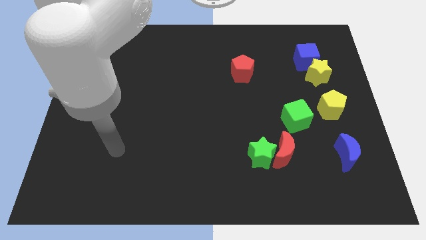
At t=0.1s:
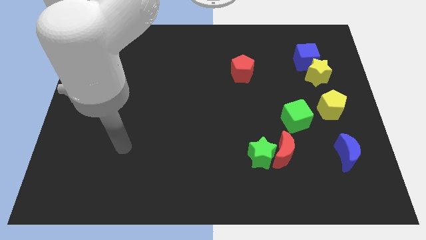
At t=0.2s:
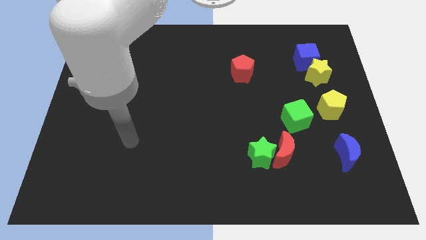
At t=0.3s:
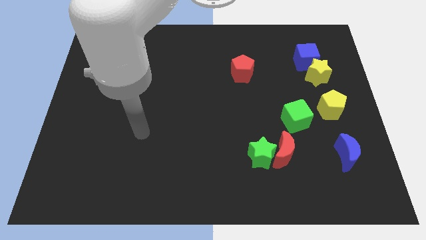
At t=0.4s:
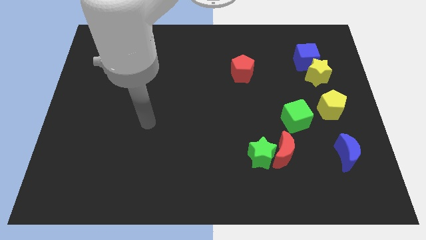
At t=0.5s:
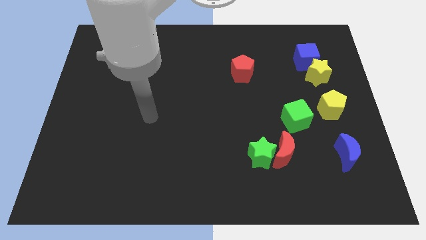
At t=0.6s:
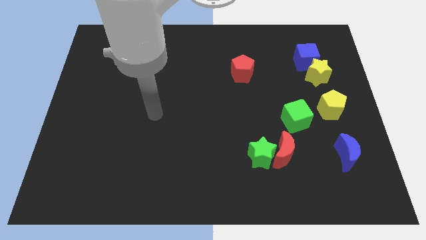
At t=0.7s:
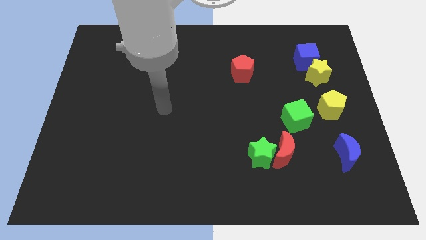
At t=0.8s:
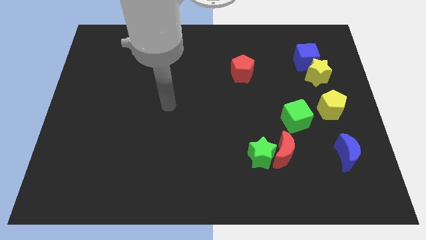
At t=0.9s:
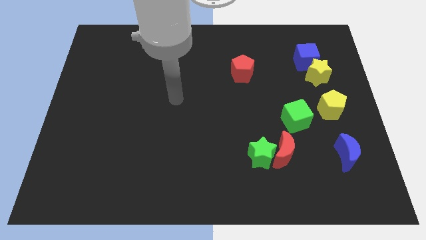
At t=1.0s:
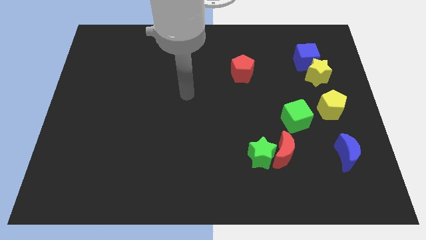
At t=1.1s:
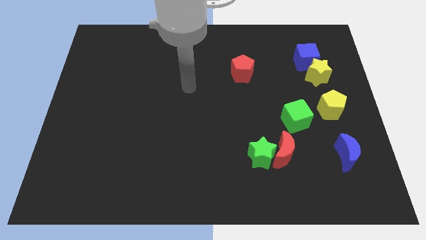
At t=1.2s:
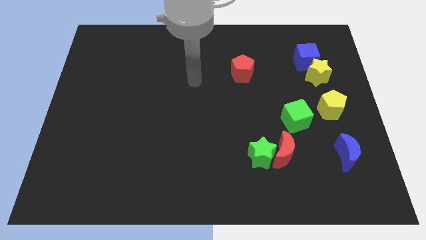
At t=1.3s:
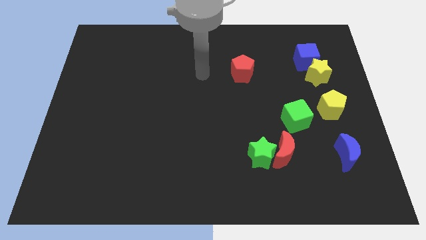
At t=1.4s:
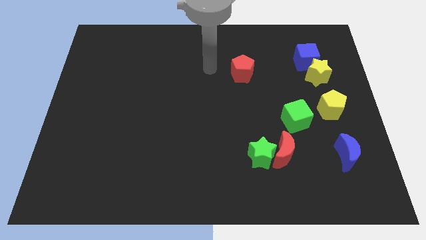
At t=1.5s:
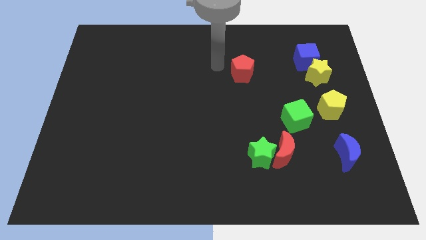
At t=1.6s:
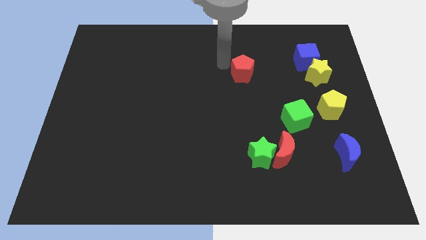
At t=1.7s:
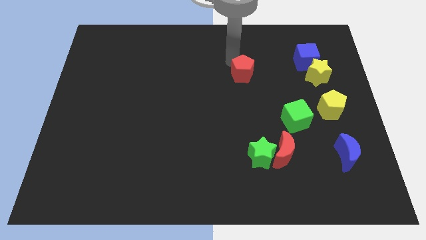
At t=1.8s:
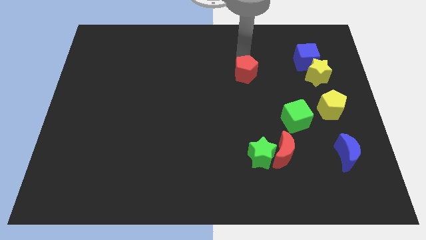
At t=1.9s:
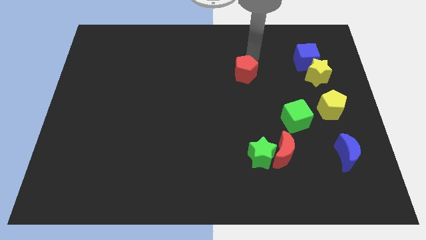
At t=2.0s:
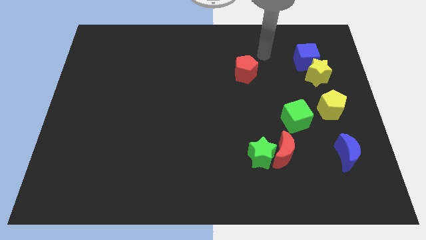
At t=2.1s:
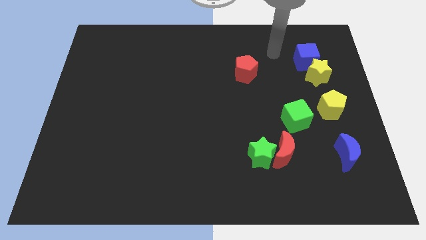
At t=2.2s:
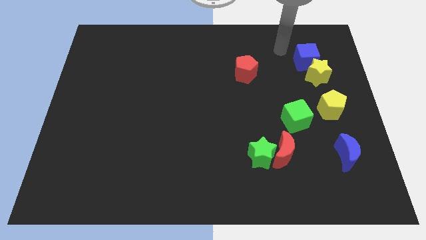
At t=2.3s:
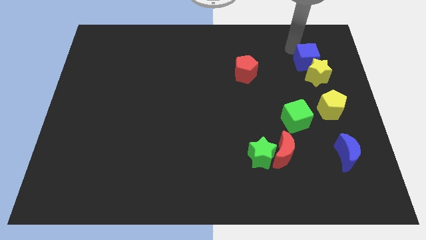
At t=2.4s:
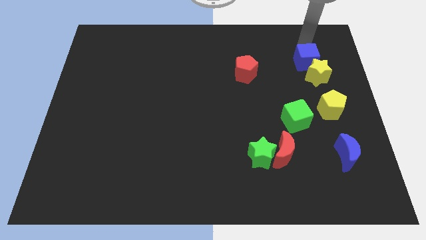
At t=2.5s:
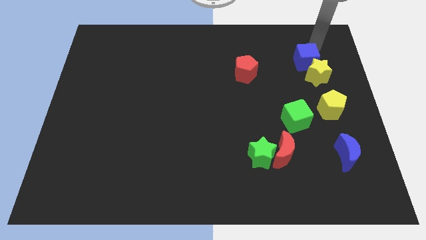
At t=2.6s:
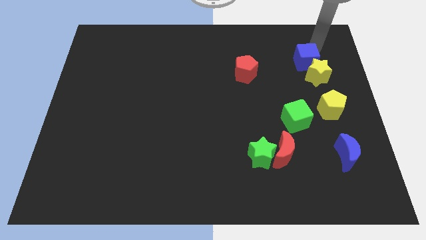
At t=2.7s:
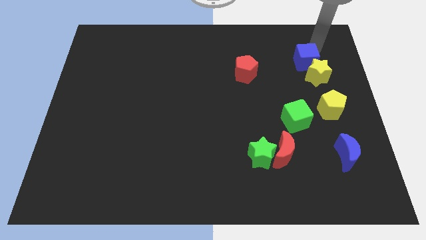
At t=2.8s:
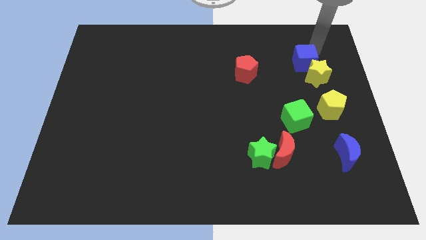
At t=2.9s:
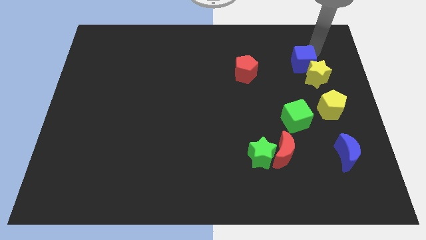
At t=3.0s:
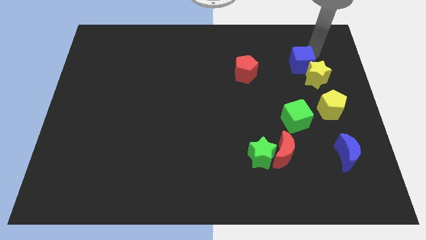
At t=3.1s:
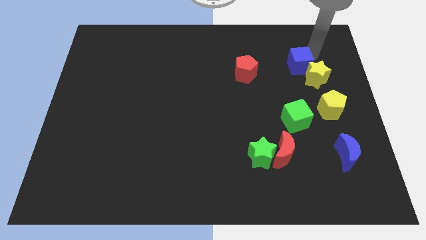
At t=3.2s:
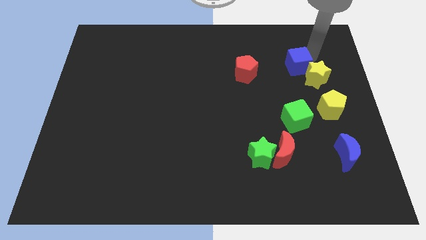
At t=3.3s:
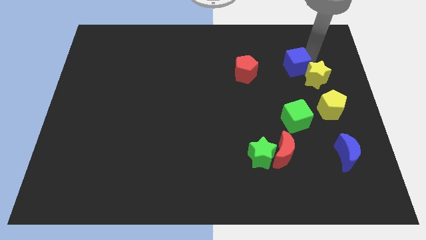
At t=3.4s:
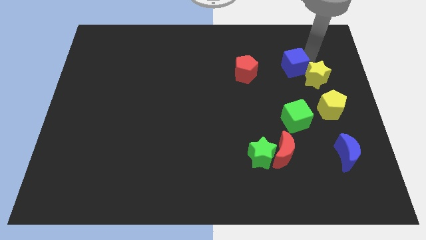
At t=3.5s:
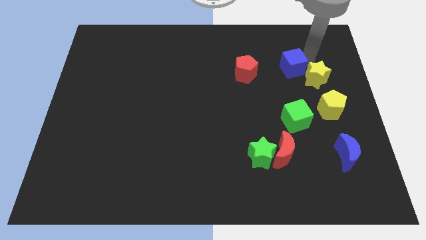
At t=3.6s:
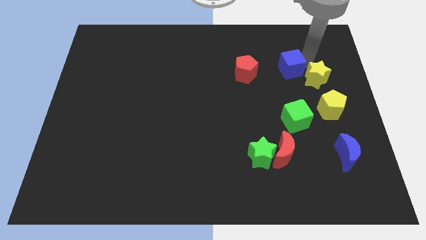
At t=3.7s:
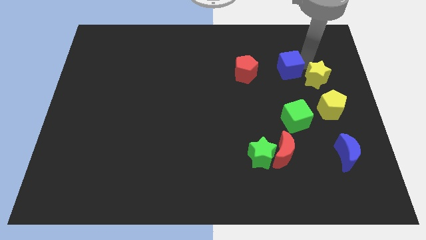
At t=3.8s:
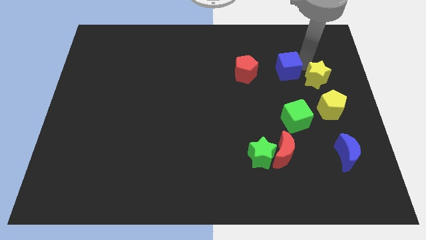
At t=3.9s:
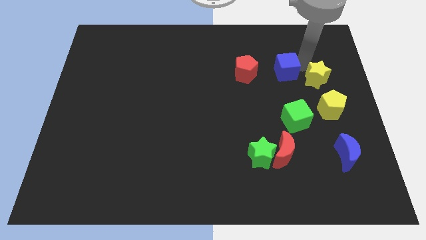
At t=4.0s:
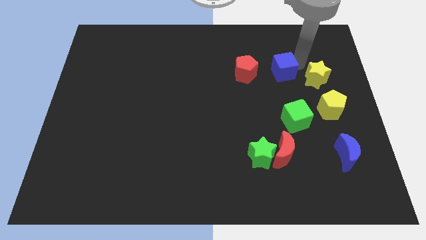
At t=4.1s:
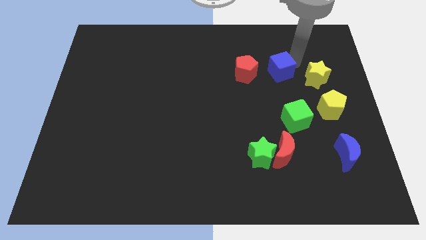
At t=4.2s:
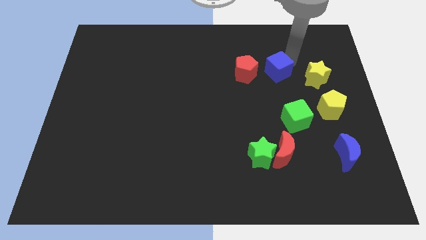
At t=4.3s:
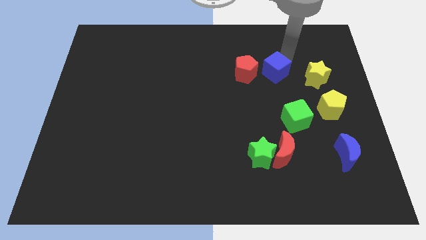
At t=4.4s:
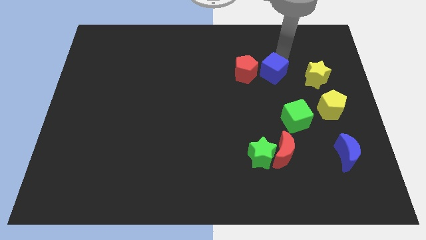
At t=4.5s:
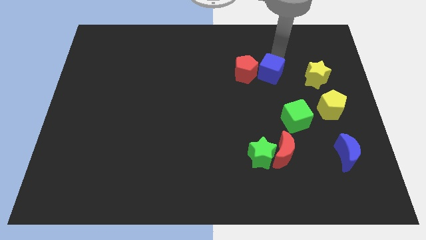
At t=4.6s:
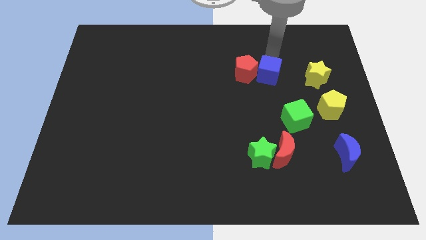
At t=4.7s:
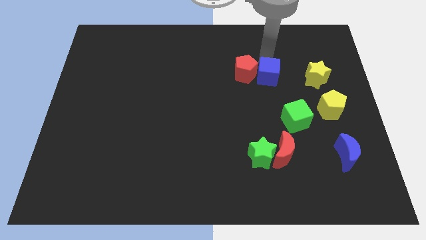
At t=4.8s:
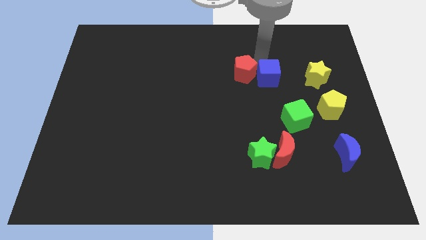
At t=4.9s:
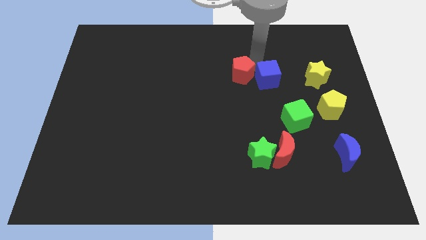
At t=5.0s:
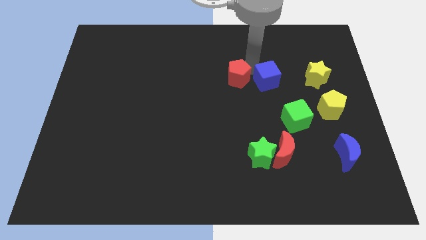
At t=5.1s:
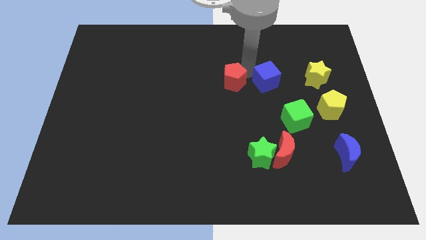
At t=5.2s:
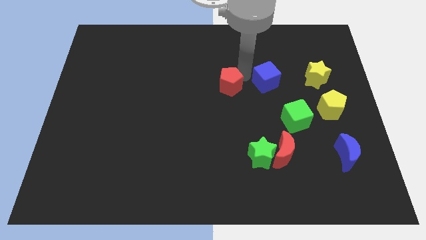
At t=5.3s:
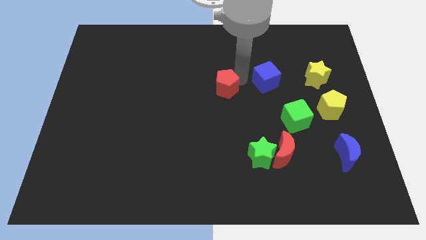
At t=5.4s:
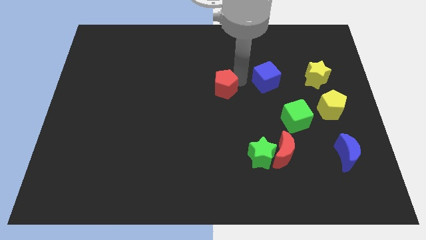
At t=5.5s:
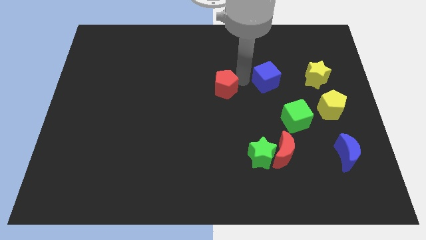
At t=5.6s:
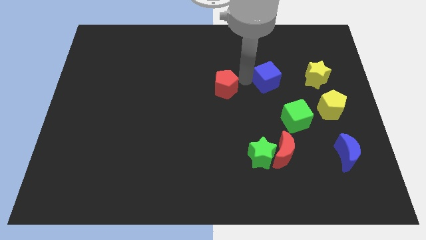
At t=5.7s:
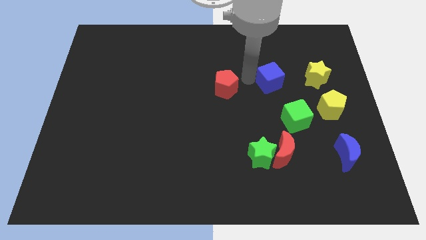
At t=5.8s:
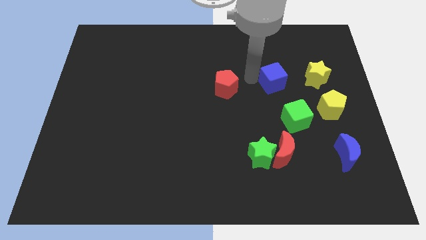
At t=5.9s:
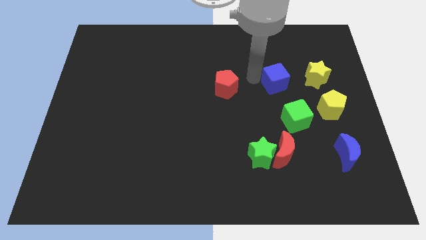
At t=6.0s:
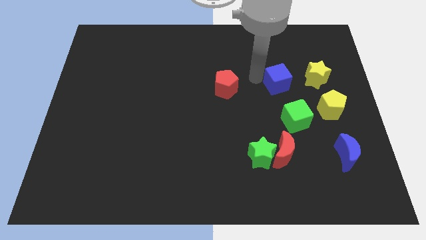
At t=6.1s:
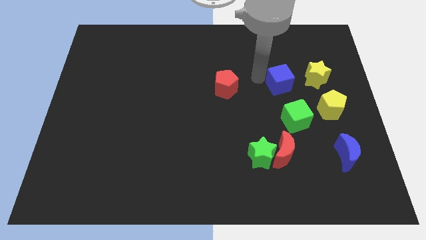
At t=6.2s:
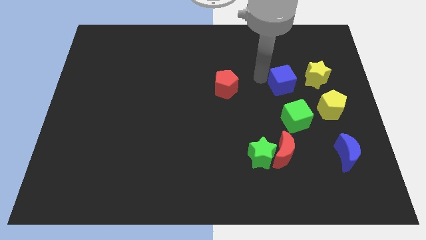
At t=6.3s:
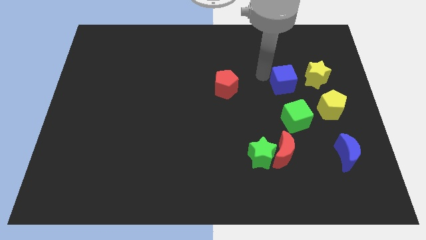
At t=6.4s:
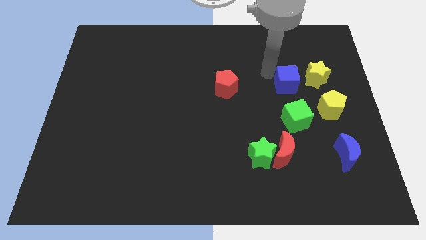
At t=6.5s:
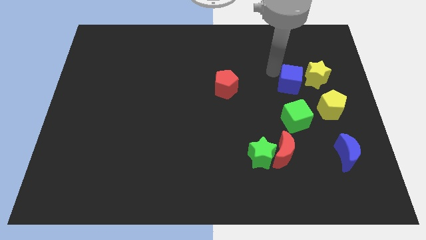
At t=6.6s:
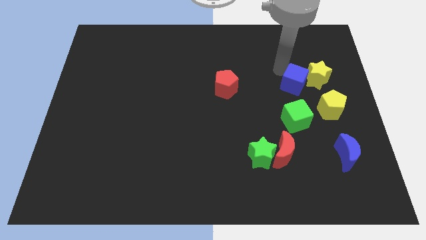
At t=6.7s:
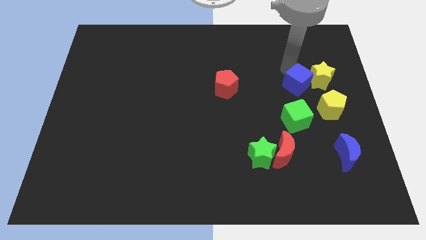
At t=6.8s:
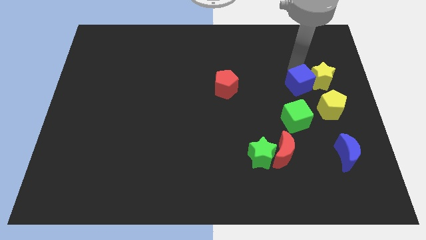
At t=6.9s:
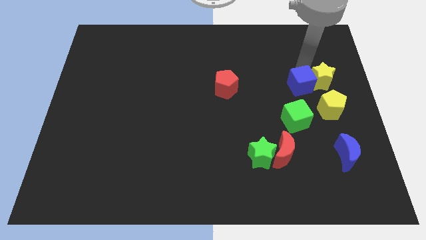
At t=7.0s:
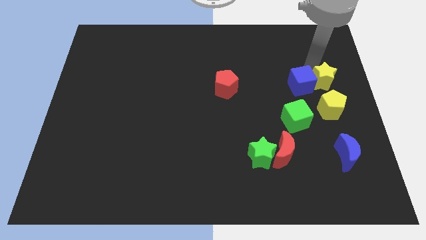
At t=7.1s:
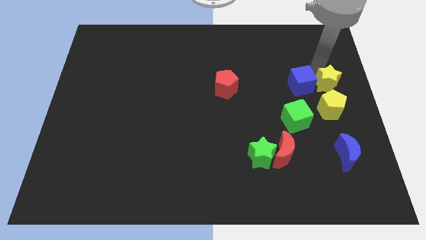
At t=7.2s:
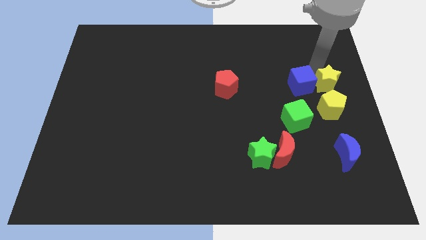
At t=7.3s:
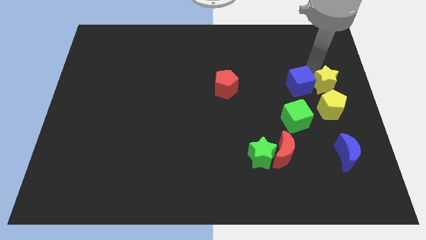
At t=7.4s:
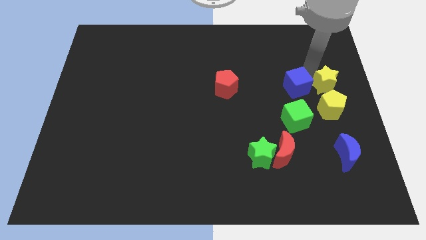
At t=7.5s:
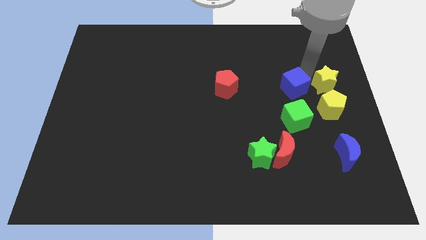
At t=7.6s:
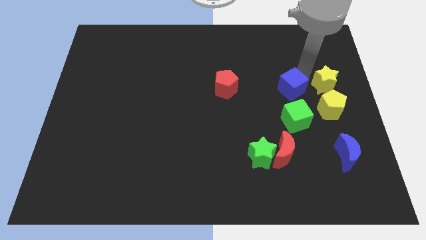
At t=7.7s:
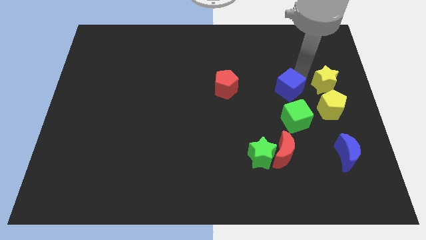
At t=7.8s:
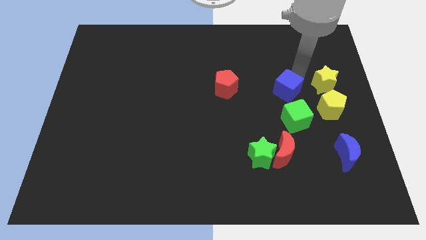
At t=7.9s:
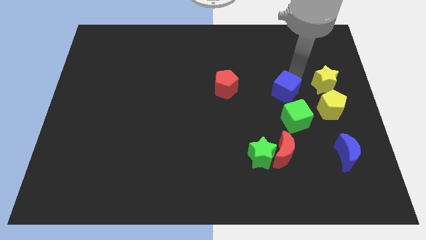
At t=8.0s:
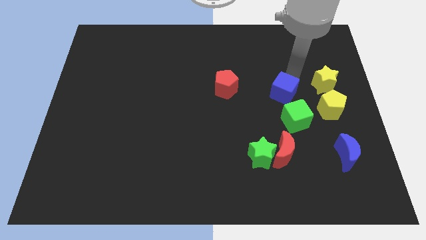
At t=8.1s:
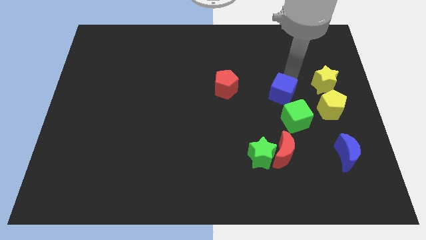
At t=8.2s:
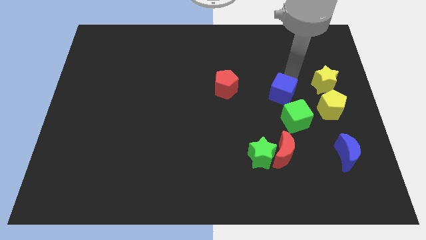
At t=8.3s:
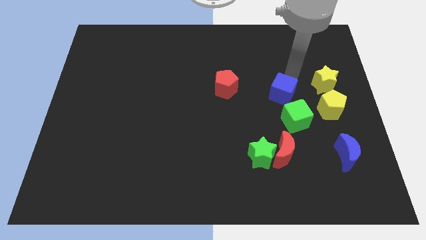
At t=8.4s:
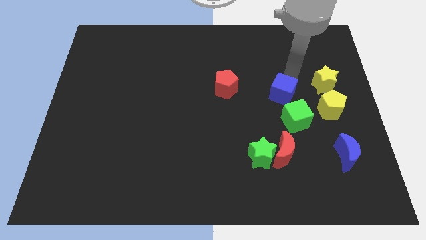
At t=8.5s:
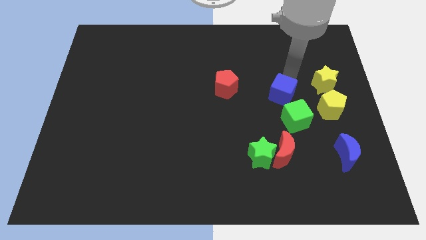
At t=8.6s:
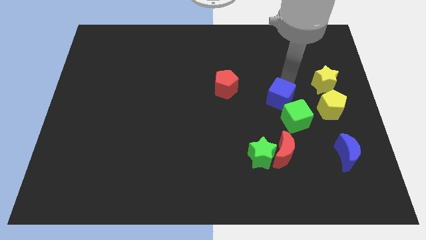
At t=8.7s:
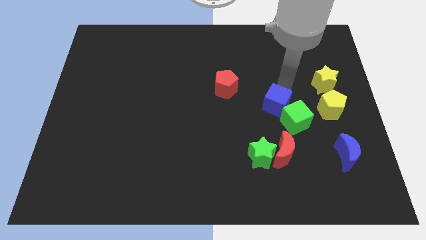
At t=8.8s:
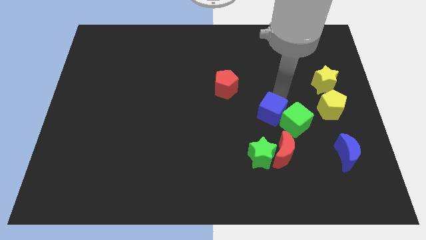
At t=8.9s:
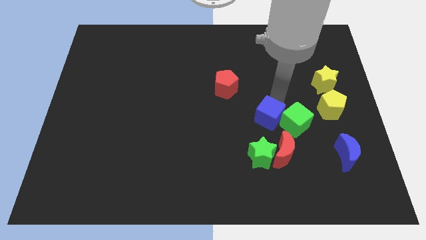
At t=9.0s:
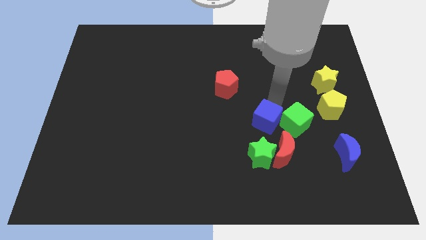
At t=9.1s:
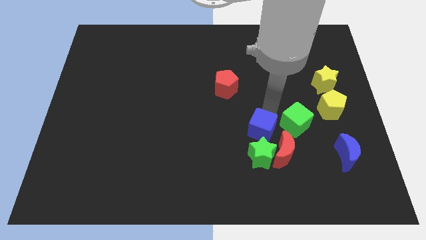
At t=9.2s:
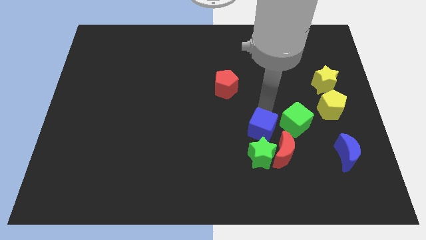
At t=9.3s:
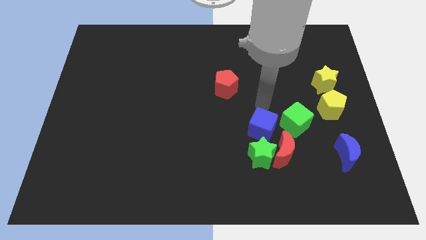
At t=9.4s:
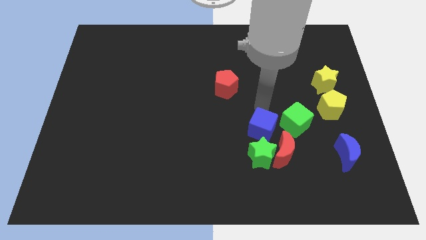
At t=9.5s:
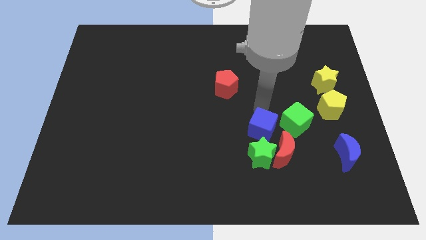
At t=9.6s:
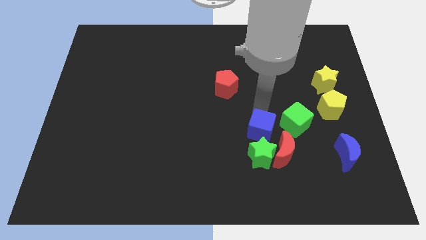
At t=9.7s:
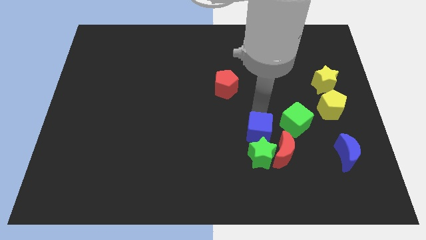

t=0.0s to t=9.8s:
push the blue cube to the green star
